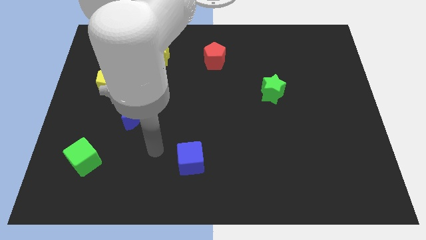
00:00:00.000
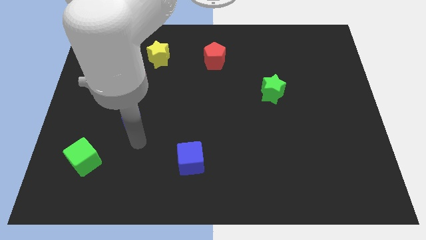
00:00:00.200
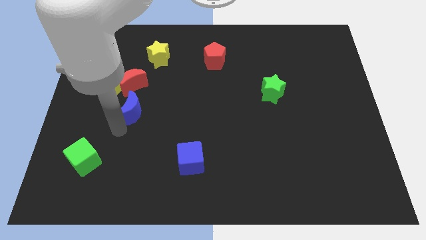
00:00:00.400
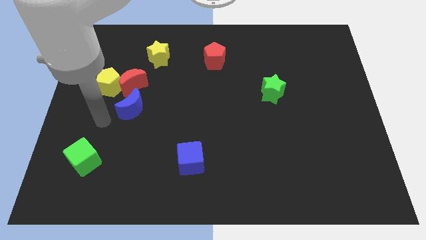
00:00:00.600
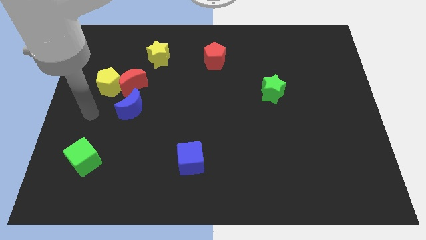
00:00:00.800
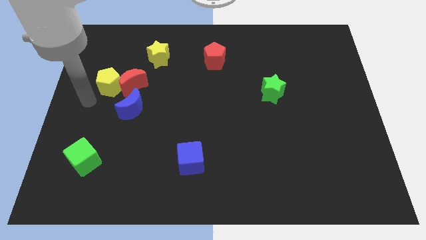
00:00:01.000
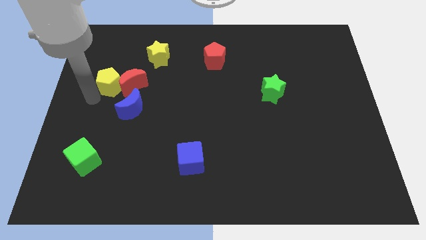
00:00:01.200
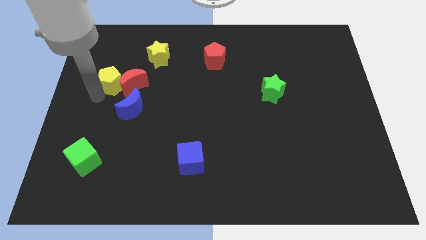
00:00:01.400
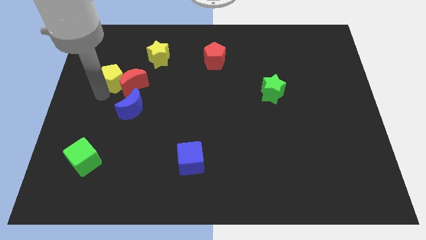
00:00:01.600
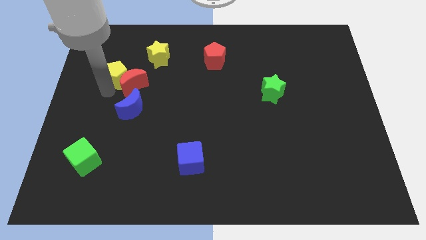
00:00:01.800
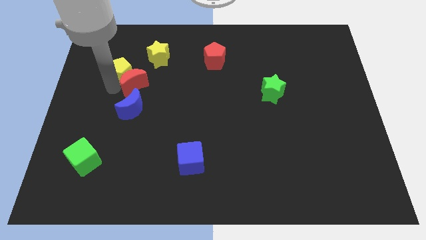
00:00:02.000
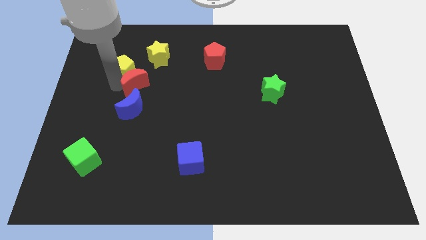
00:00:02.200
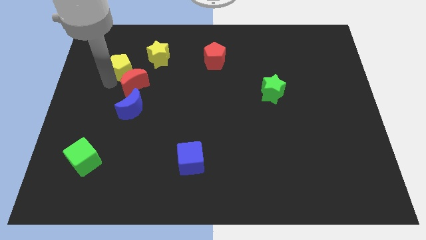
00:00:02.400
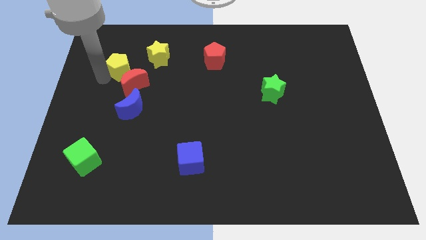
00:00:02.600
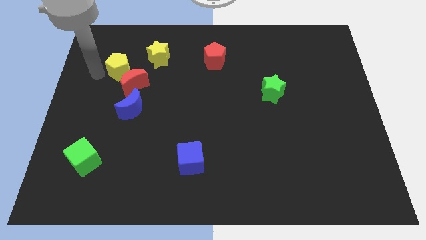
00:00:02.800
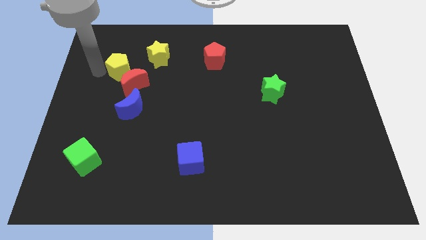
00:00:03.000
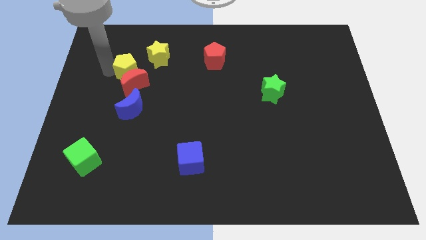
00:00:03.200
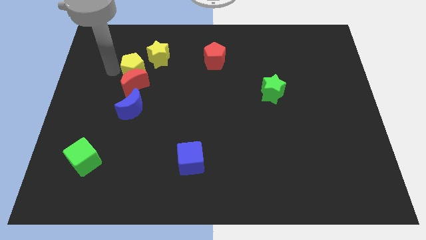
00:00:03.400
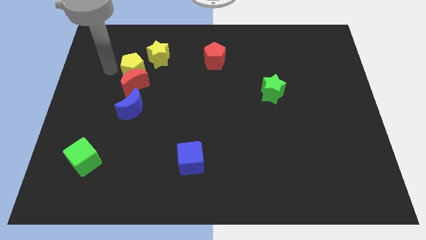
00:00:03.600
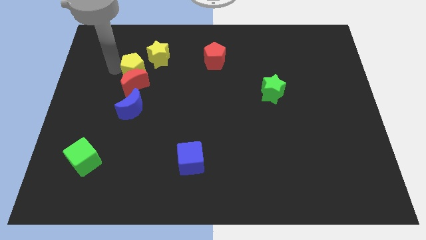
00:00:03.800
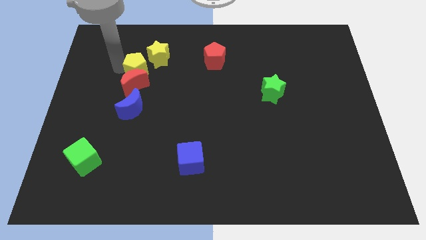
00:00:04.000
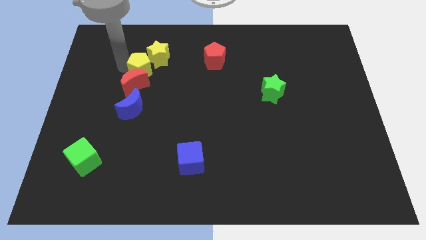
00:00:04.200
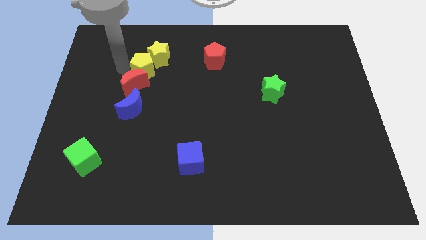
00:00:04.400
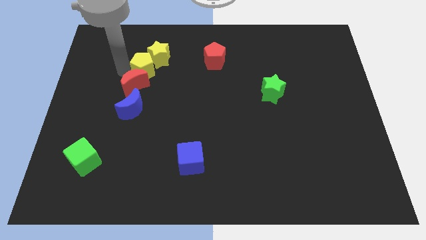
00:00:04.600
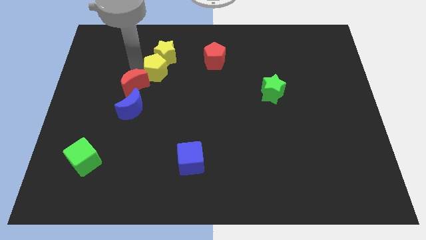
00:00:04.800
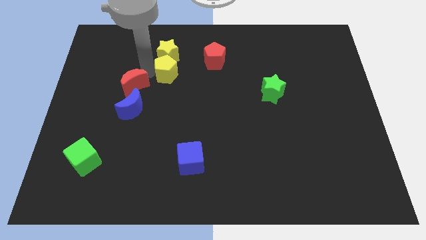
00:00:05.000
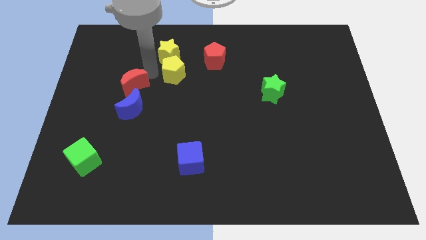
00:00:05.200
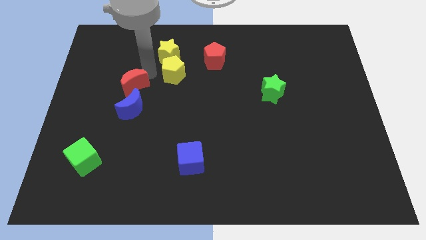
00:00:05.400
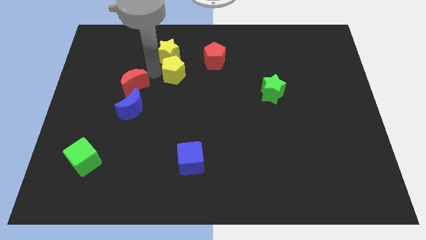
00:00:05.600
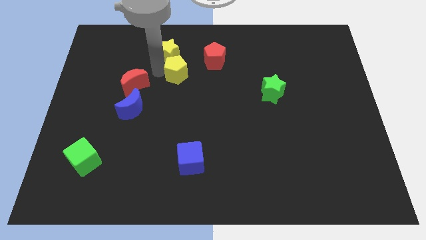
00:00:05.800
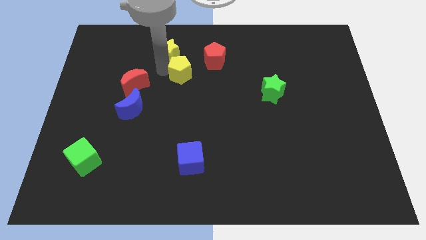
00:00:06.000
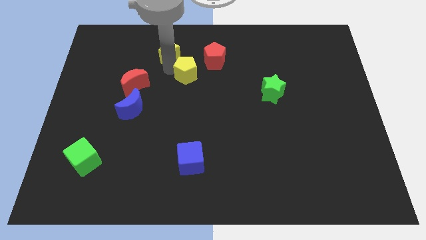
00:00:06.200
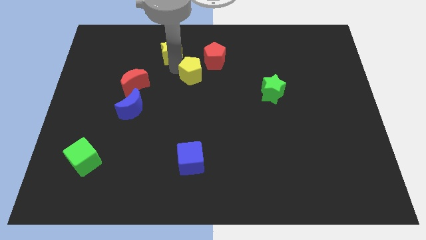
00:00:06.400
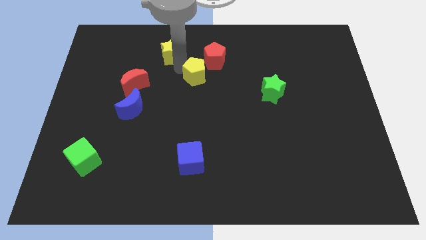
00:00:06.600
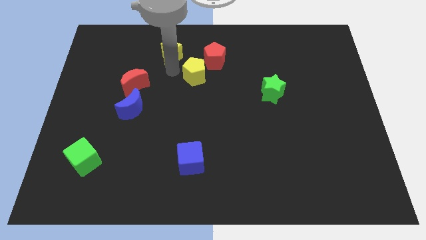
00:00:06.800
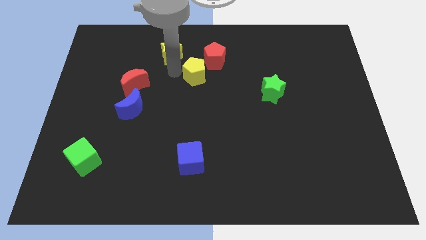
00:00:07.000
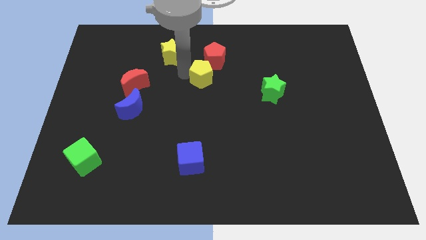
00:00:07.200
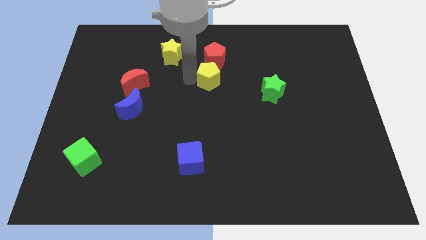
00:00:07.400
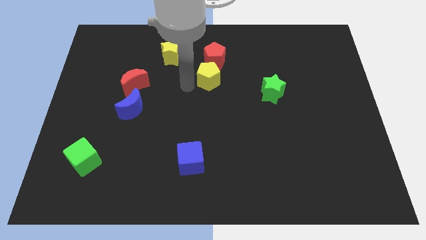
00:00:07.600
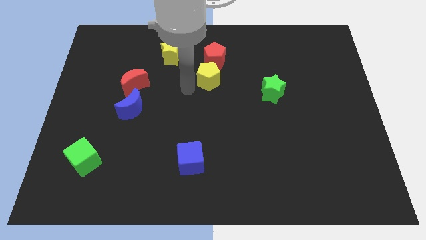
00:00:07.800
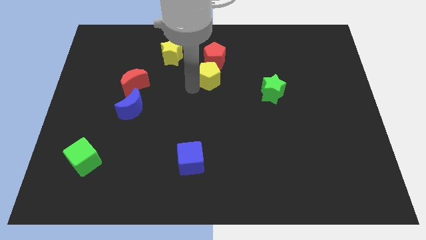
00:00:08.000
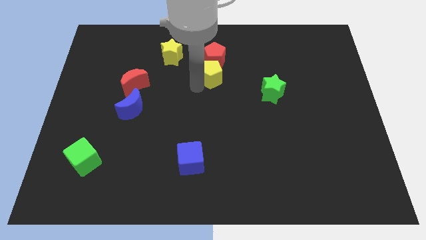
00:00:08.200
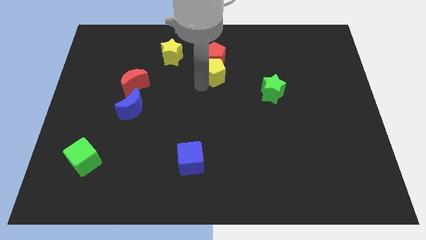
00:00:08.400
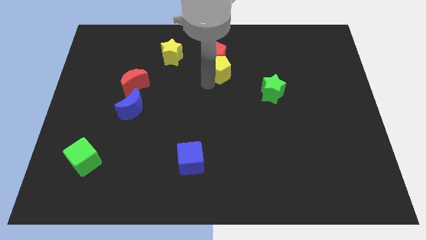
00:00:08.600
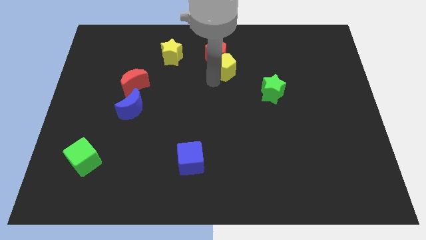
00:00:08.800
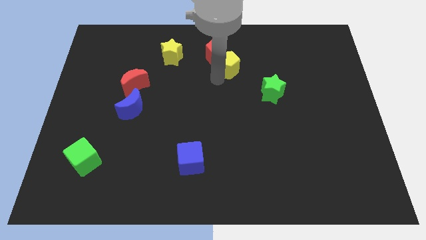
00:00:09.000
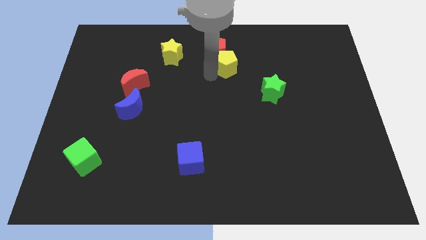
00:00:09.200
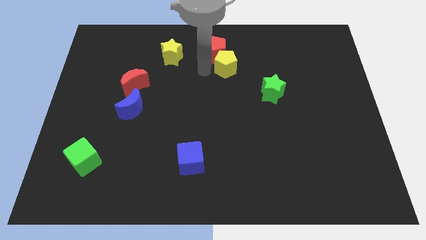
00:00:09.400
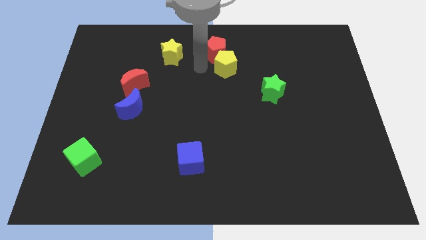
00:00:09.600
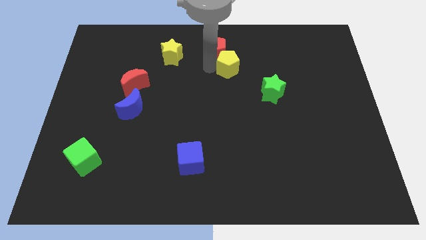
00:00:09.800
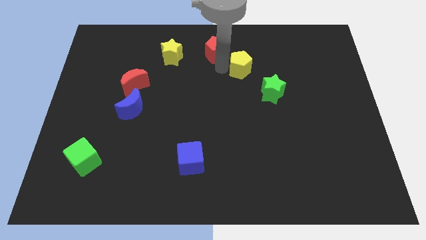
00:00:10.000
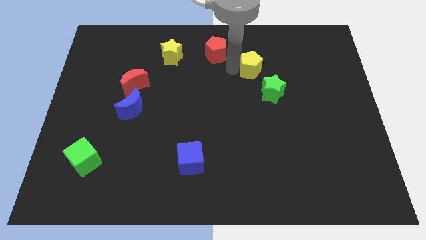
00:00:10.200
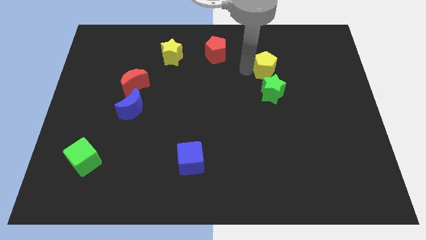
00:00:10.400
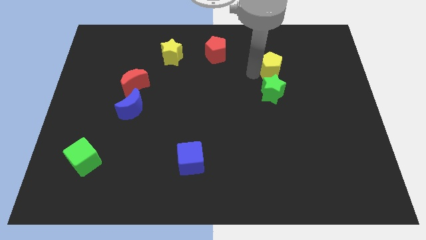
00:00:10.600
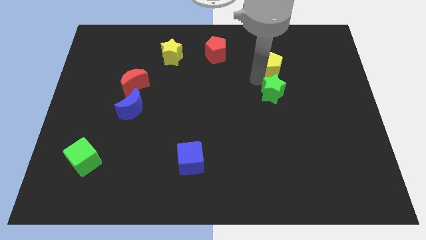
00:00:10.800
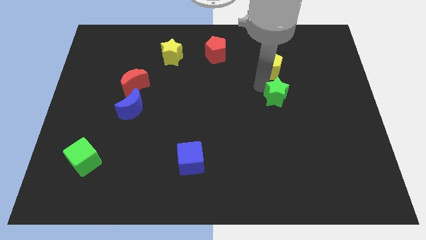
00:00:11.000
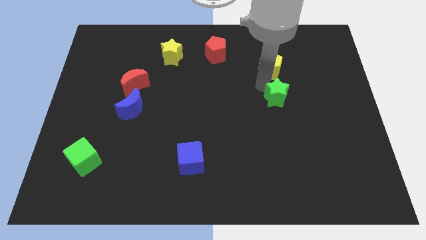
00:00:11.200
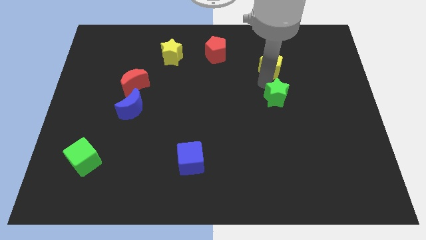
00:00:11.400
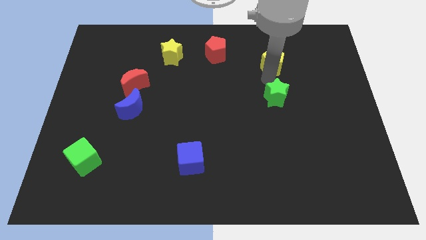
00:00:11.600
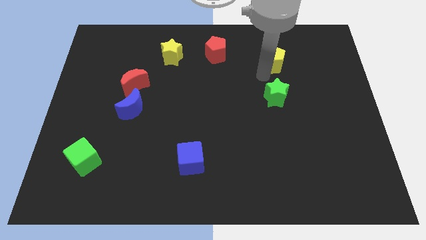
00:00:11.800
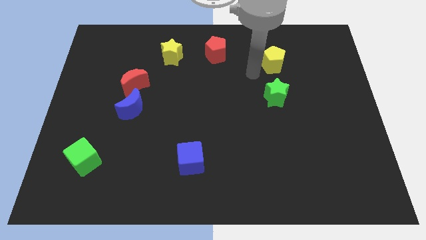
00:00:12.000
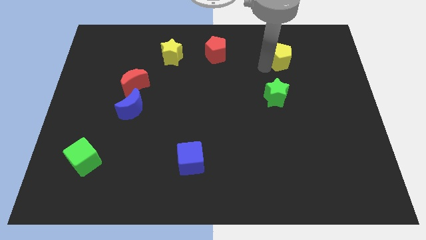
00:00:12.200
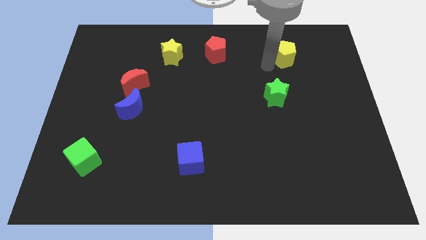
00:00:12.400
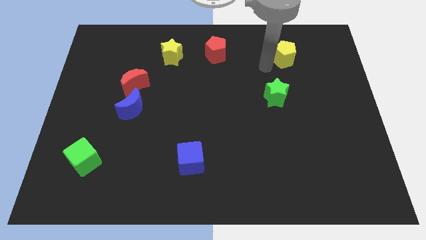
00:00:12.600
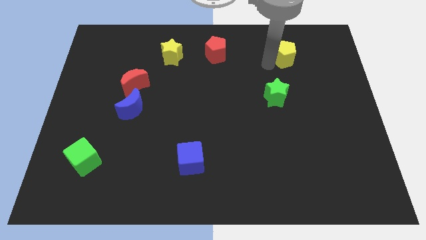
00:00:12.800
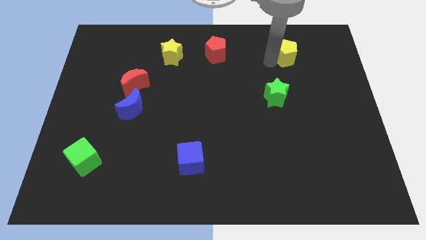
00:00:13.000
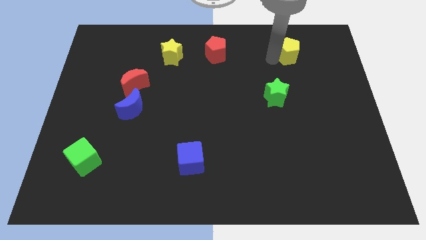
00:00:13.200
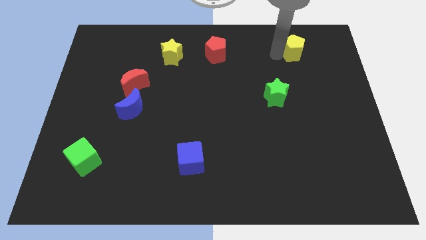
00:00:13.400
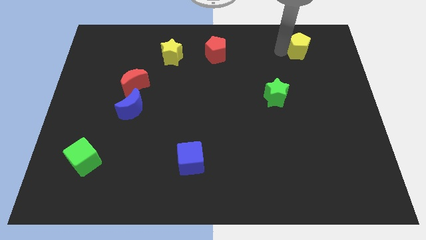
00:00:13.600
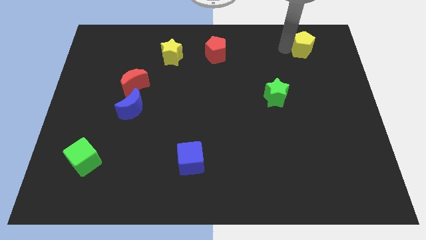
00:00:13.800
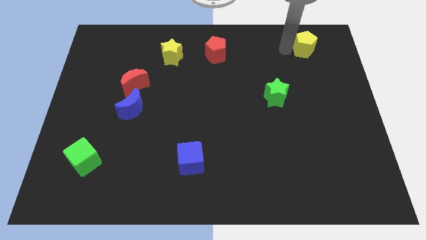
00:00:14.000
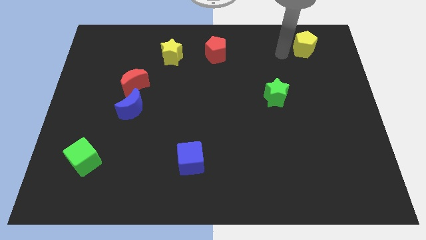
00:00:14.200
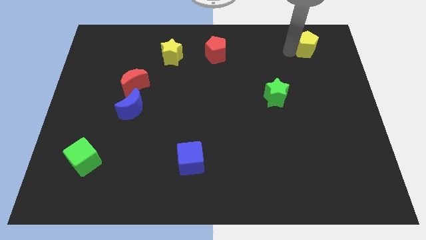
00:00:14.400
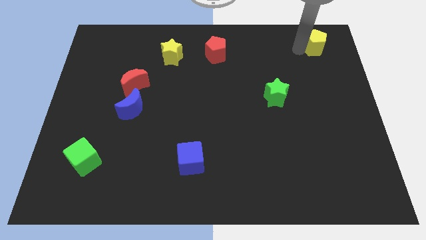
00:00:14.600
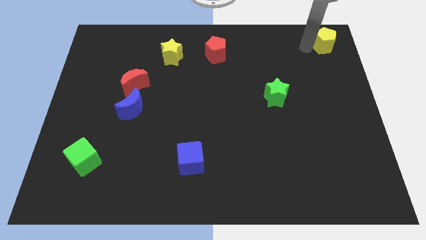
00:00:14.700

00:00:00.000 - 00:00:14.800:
slide the yellow pentagon to the top right of the board
